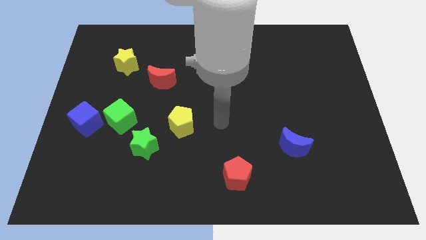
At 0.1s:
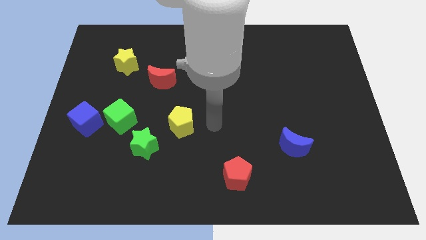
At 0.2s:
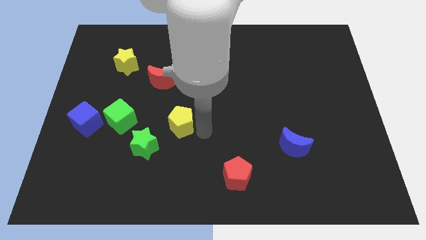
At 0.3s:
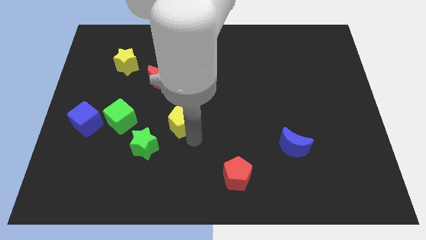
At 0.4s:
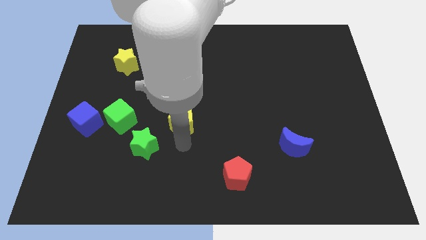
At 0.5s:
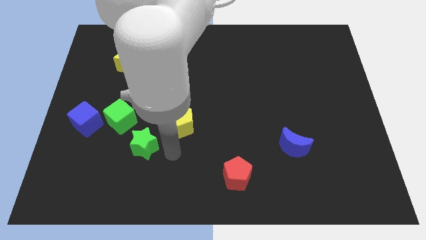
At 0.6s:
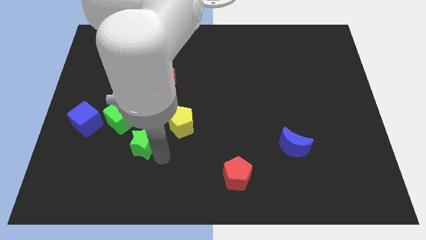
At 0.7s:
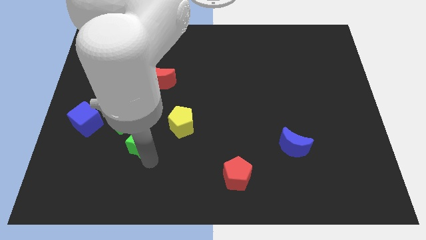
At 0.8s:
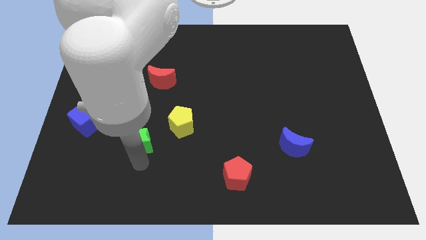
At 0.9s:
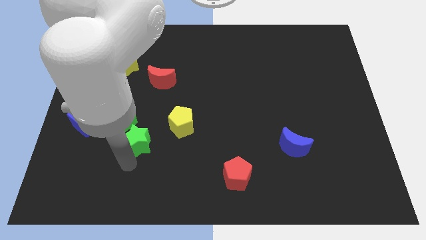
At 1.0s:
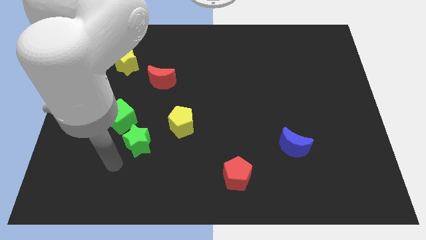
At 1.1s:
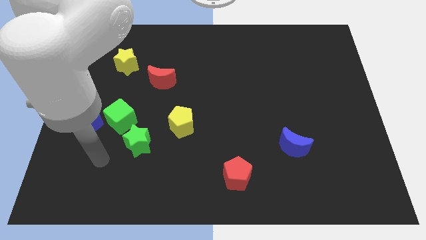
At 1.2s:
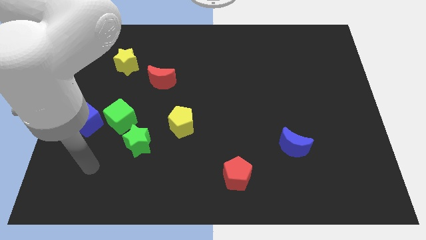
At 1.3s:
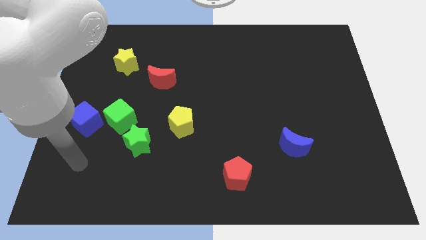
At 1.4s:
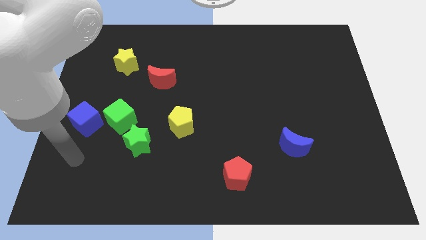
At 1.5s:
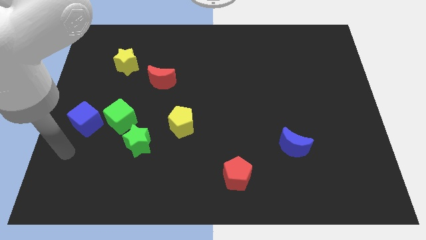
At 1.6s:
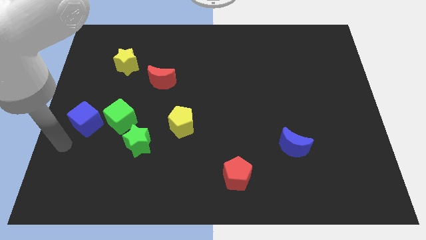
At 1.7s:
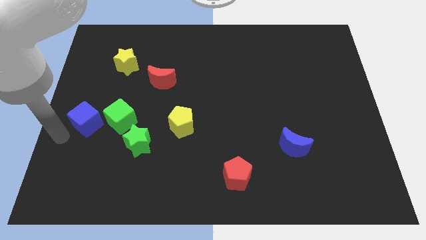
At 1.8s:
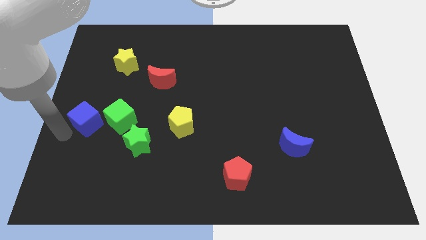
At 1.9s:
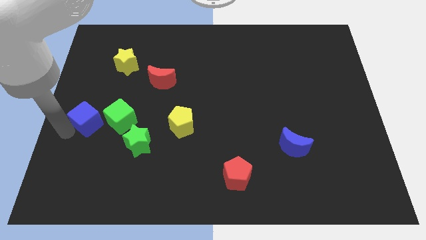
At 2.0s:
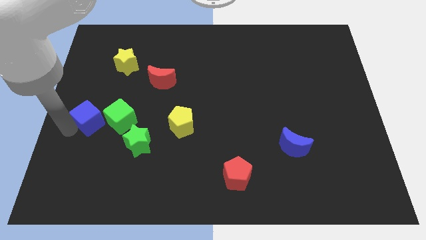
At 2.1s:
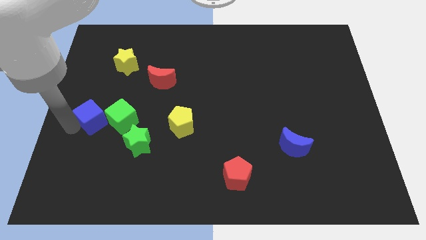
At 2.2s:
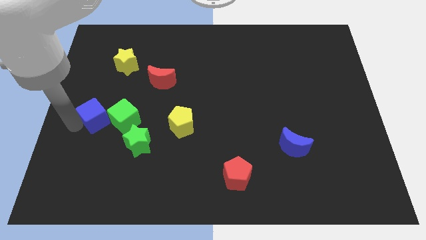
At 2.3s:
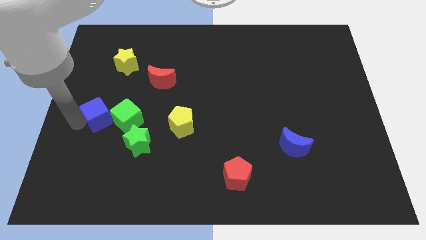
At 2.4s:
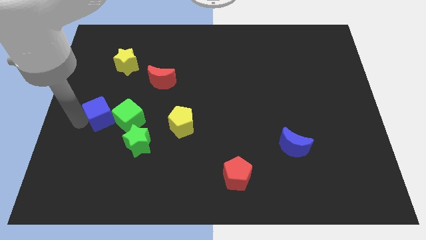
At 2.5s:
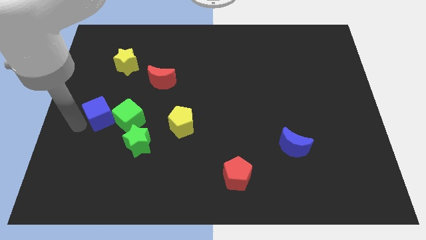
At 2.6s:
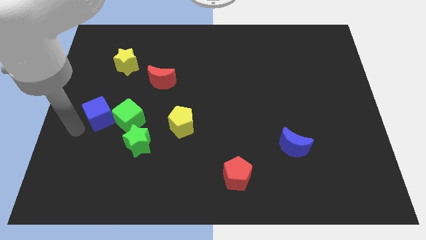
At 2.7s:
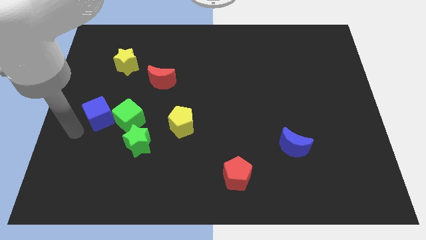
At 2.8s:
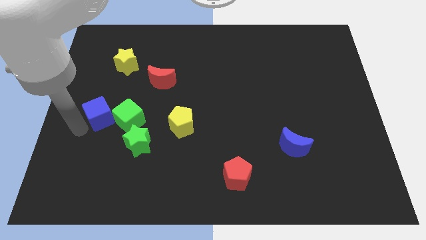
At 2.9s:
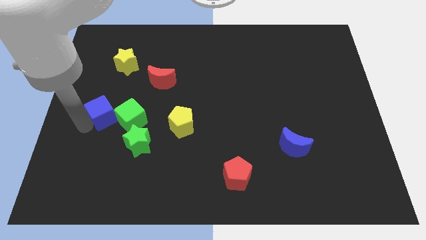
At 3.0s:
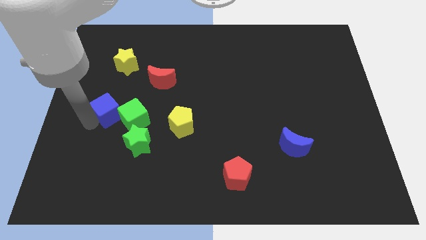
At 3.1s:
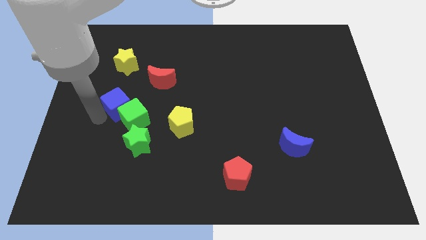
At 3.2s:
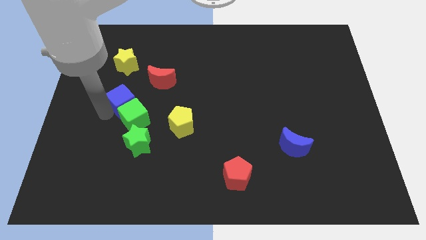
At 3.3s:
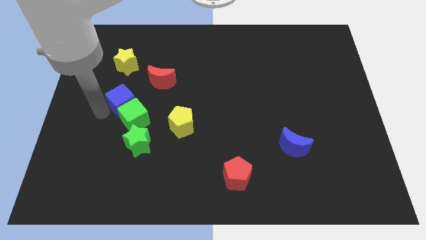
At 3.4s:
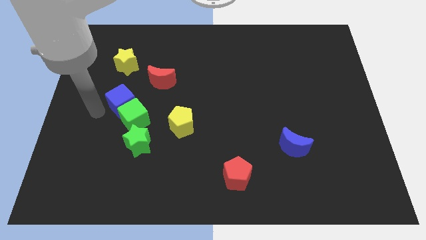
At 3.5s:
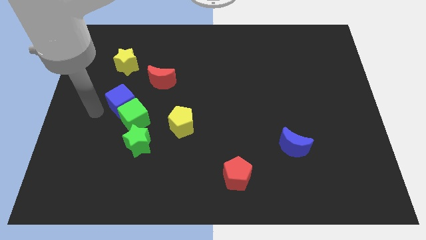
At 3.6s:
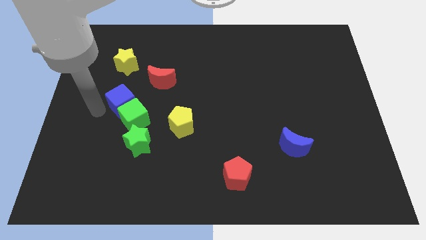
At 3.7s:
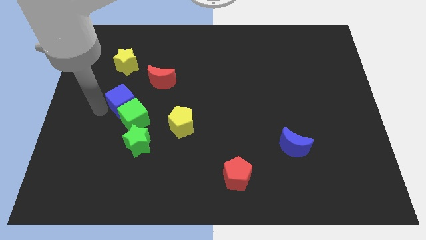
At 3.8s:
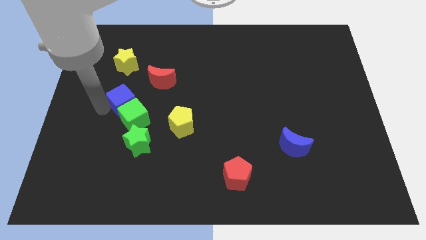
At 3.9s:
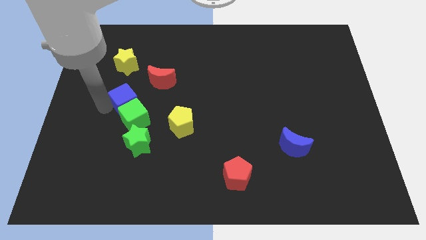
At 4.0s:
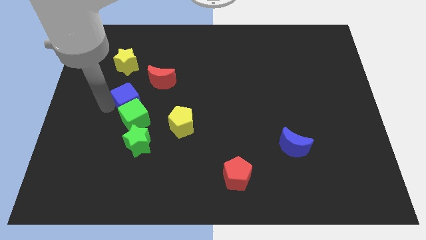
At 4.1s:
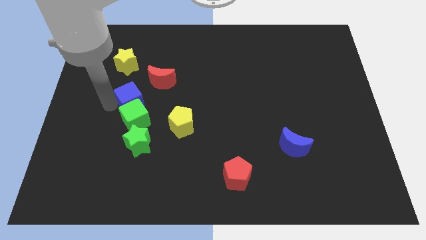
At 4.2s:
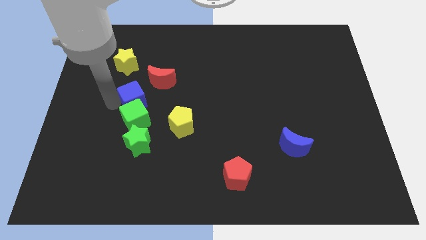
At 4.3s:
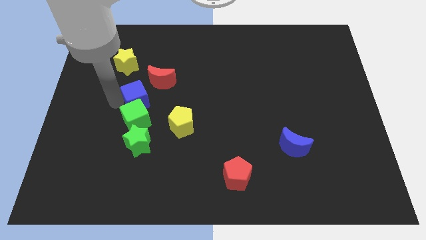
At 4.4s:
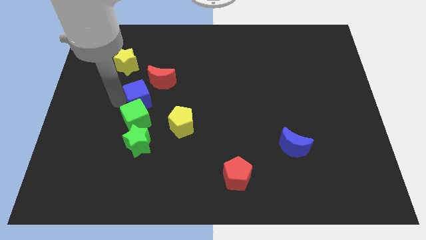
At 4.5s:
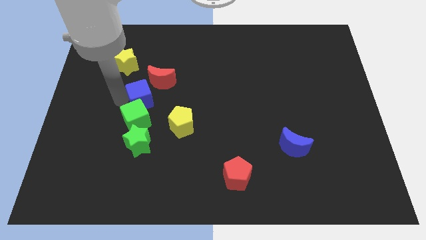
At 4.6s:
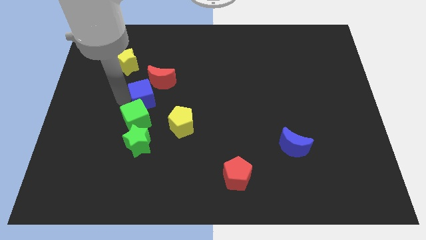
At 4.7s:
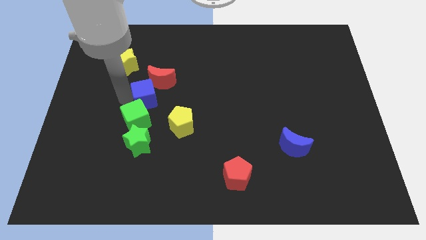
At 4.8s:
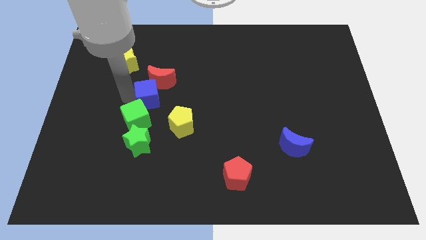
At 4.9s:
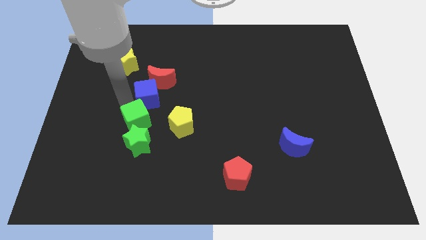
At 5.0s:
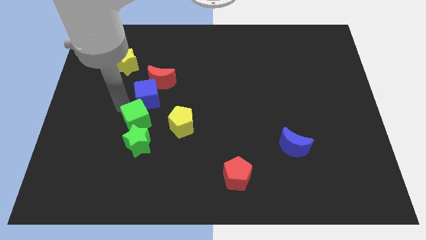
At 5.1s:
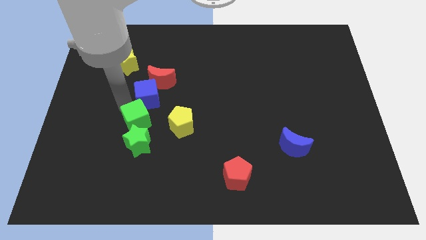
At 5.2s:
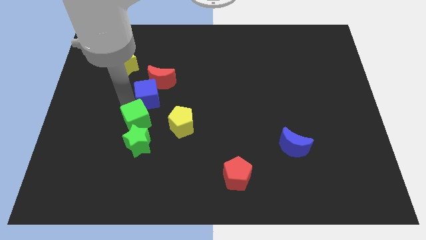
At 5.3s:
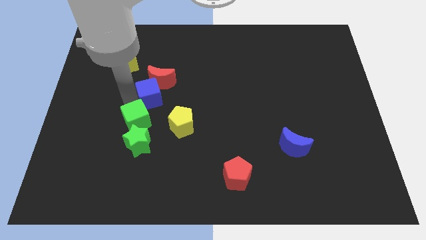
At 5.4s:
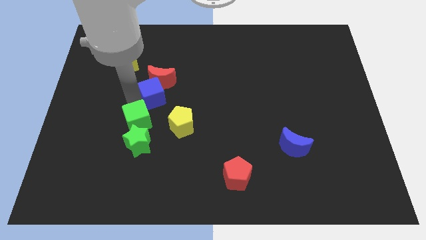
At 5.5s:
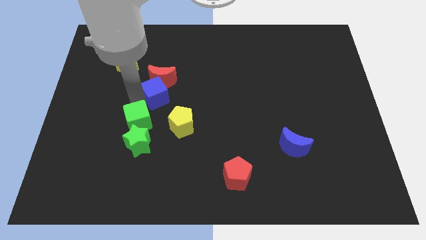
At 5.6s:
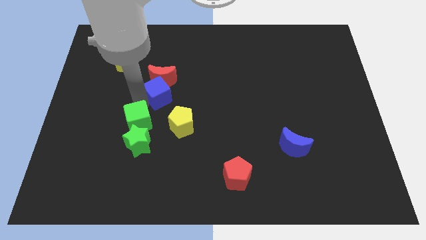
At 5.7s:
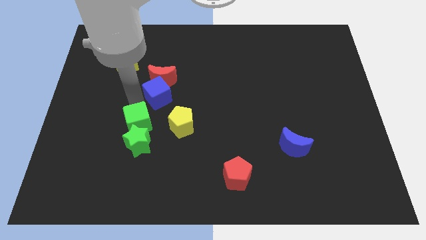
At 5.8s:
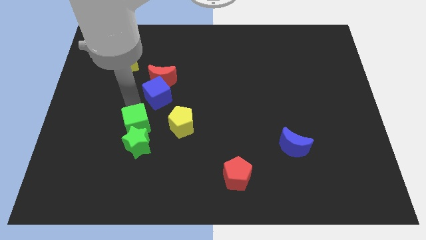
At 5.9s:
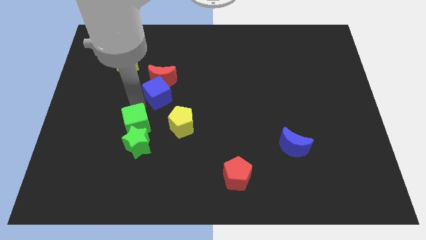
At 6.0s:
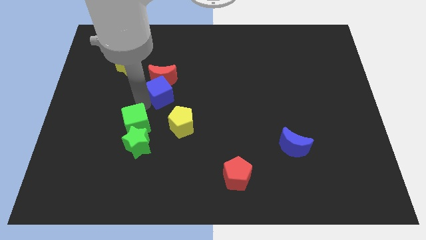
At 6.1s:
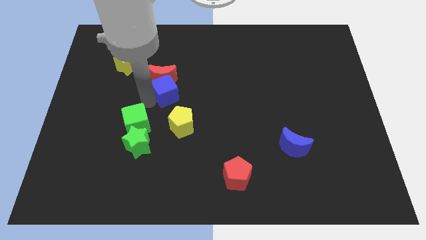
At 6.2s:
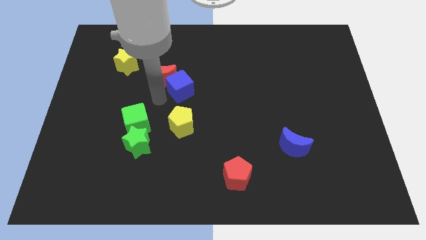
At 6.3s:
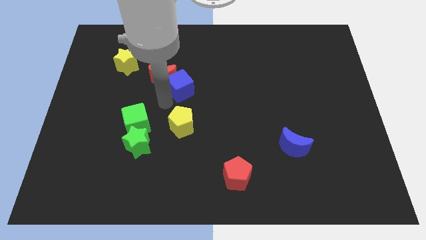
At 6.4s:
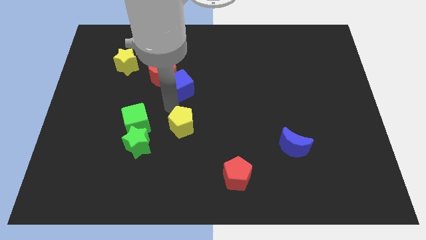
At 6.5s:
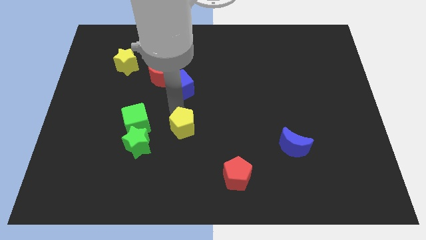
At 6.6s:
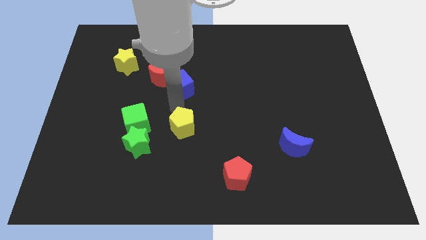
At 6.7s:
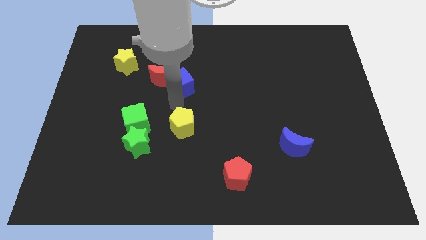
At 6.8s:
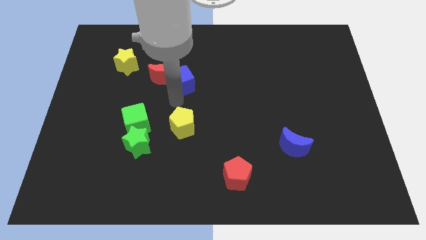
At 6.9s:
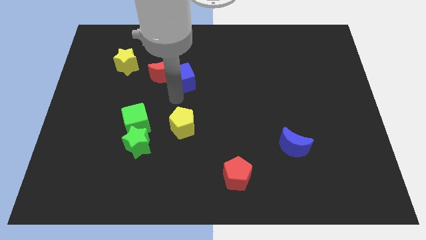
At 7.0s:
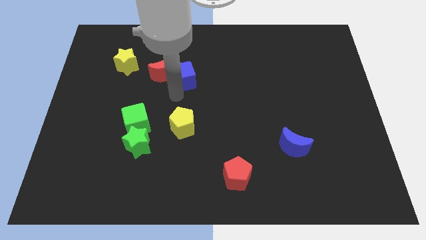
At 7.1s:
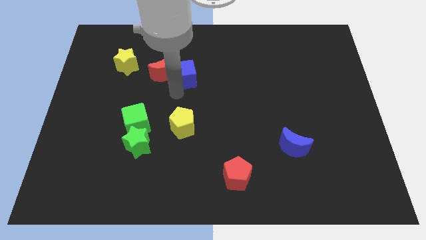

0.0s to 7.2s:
put the blue cube diagonally up and to the right of the red moon

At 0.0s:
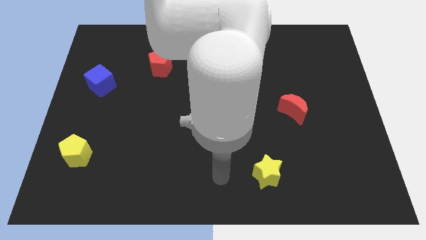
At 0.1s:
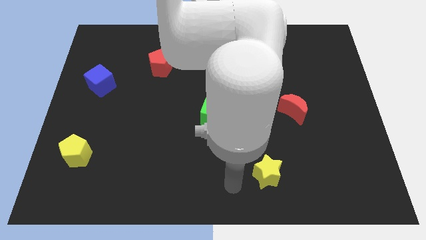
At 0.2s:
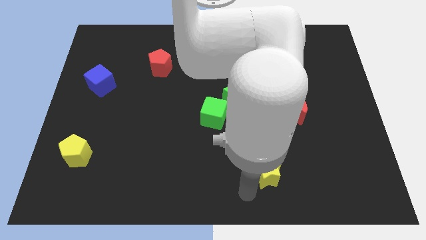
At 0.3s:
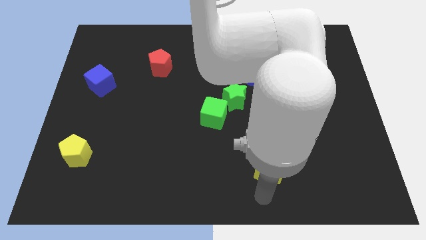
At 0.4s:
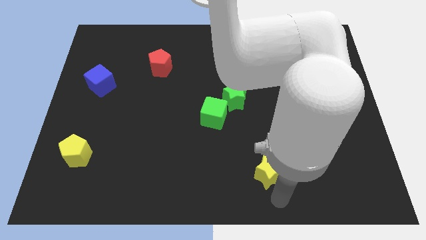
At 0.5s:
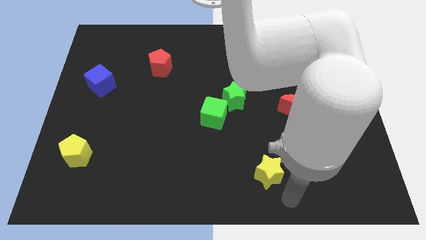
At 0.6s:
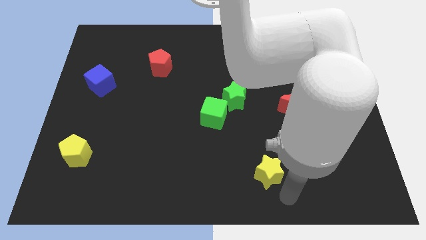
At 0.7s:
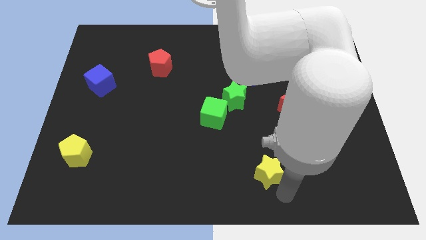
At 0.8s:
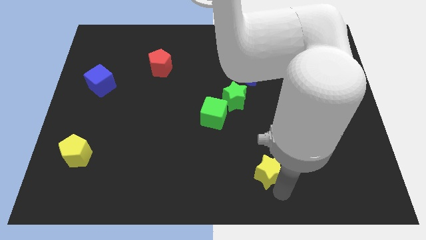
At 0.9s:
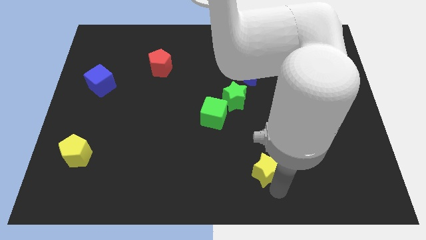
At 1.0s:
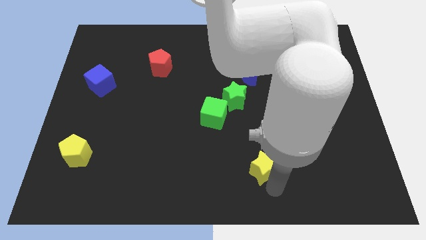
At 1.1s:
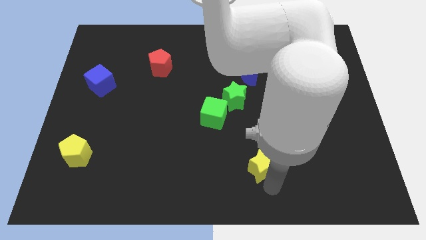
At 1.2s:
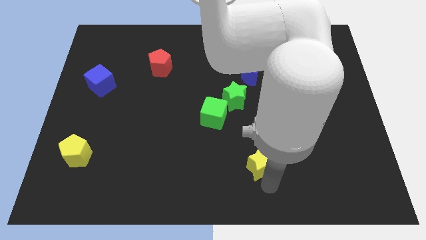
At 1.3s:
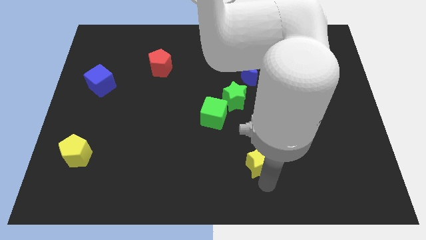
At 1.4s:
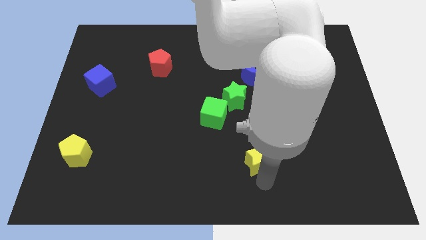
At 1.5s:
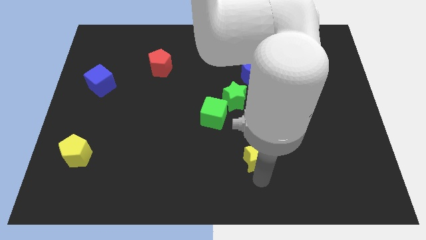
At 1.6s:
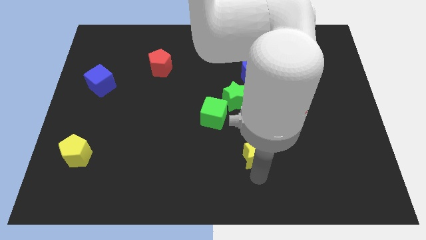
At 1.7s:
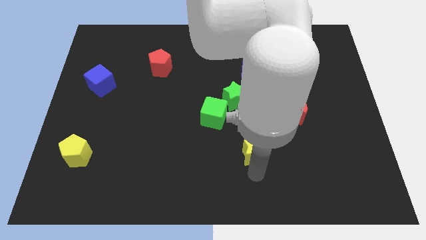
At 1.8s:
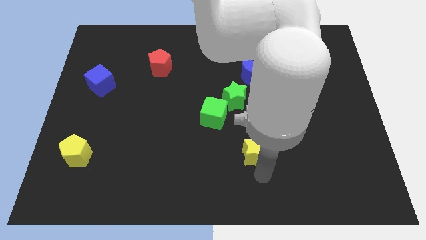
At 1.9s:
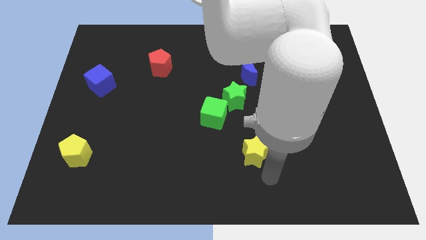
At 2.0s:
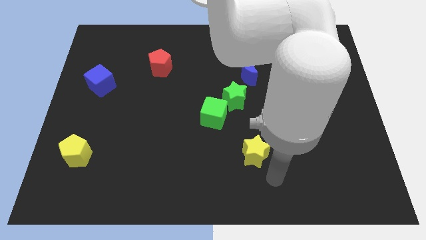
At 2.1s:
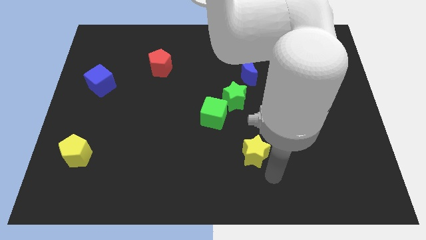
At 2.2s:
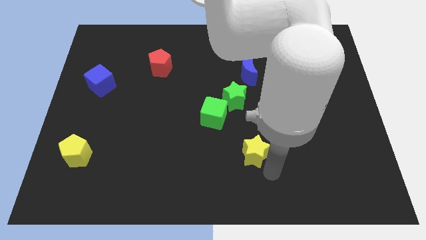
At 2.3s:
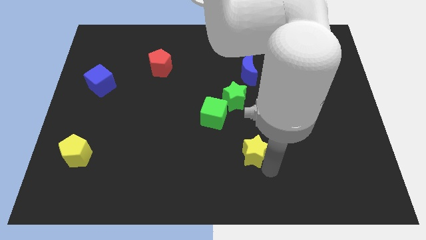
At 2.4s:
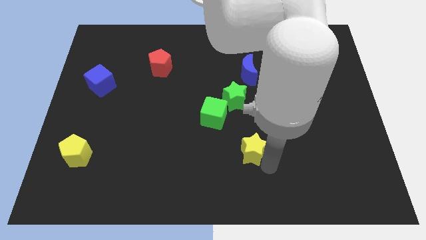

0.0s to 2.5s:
move the yellow star to the bottom right side of the green cube
